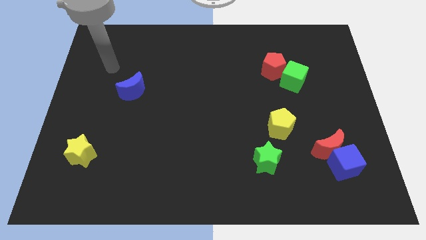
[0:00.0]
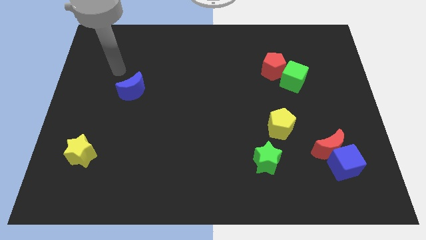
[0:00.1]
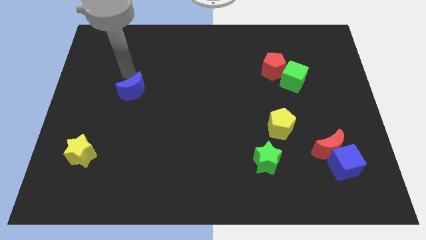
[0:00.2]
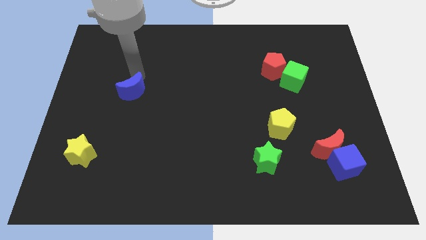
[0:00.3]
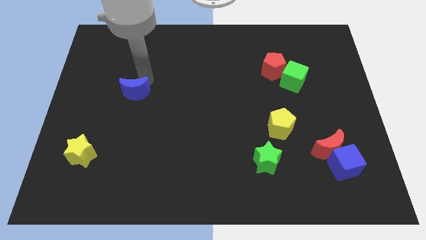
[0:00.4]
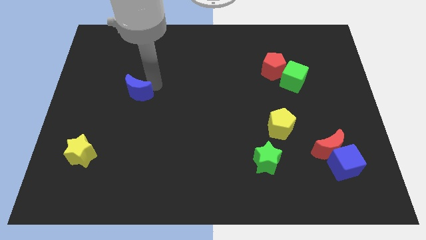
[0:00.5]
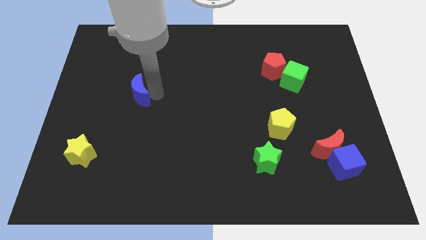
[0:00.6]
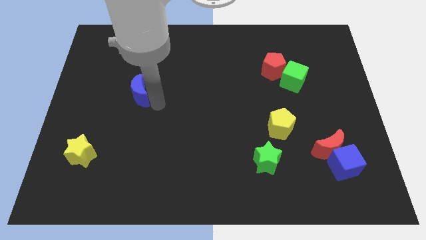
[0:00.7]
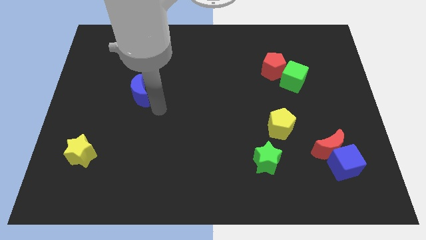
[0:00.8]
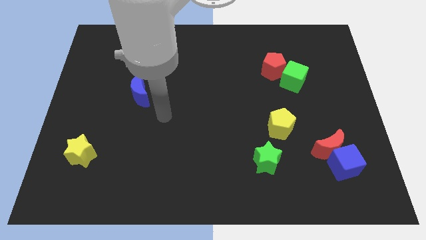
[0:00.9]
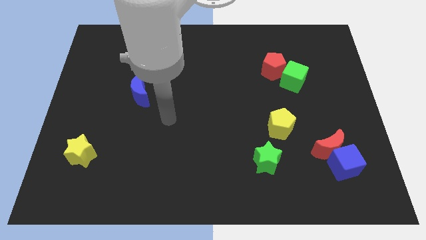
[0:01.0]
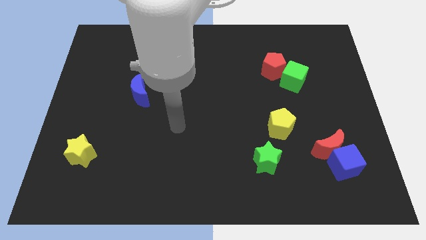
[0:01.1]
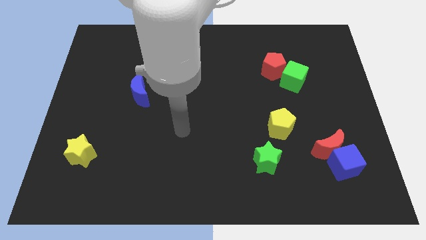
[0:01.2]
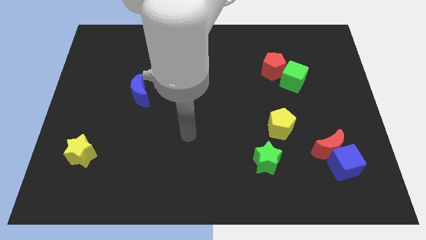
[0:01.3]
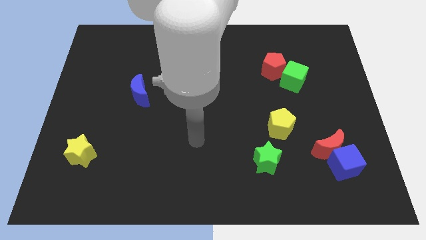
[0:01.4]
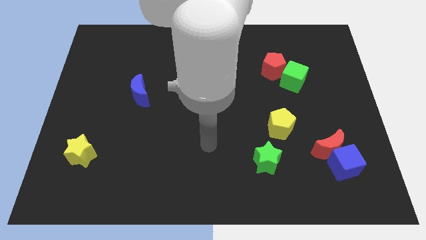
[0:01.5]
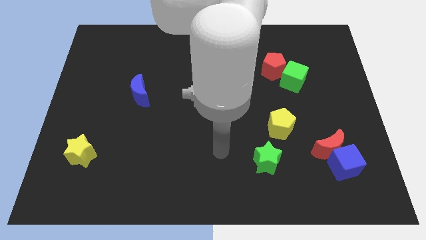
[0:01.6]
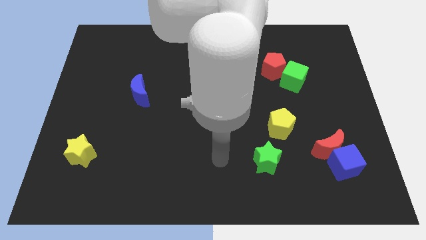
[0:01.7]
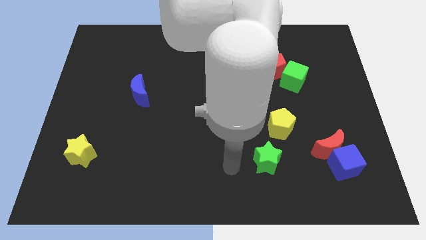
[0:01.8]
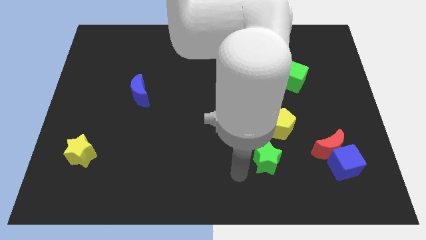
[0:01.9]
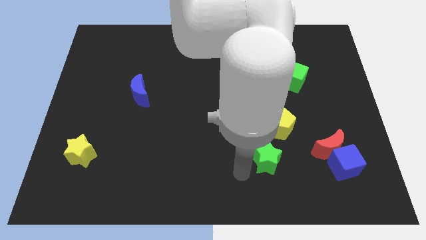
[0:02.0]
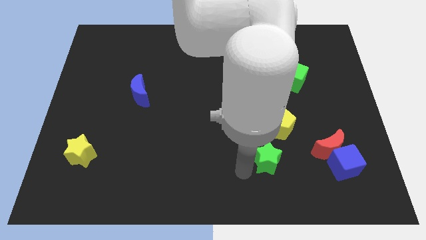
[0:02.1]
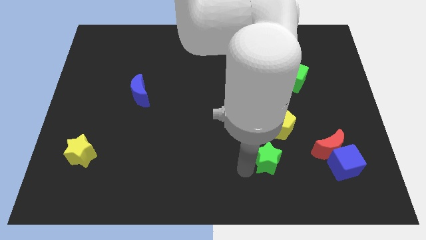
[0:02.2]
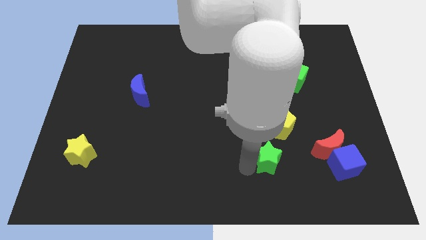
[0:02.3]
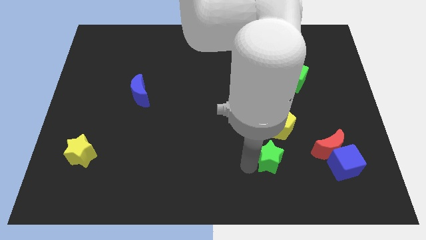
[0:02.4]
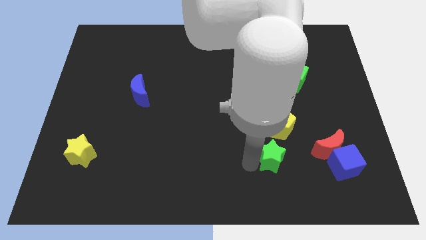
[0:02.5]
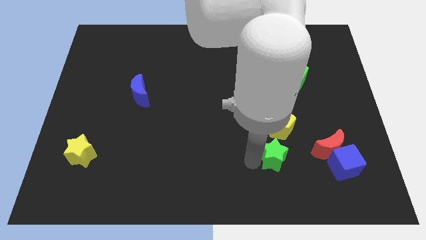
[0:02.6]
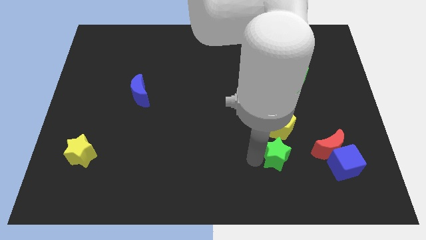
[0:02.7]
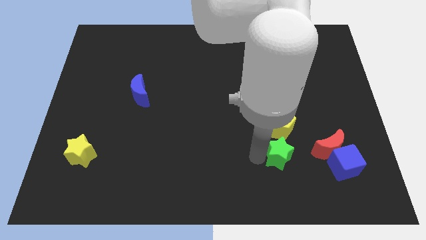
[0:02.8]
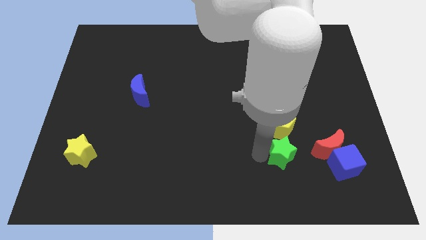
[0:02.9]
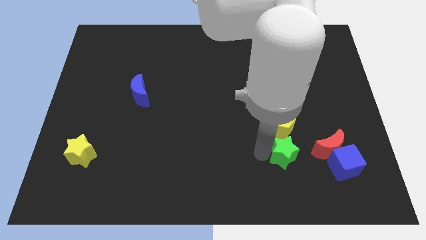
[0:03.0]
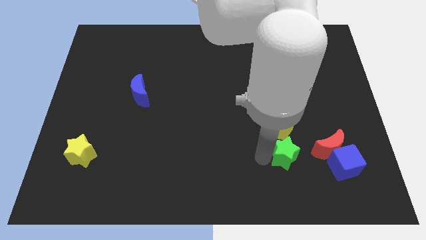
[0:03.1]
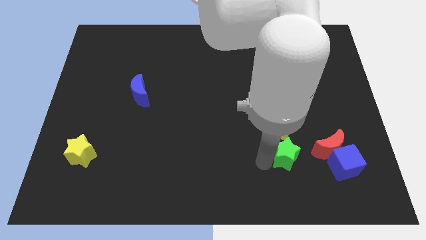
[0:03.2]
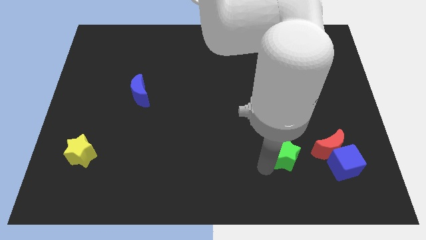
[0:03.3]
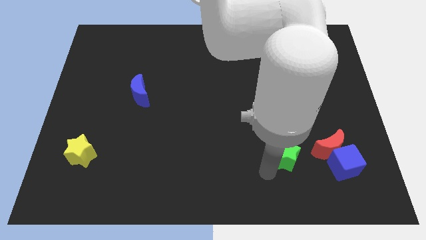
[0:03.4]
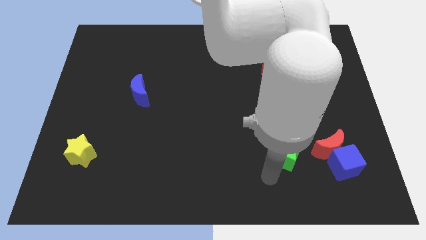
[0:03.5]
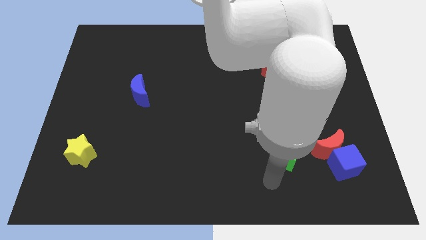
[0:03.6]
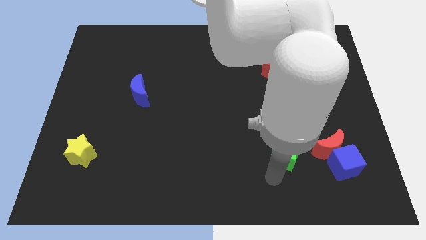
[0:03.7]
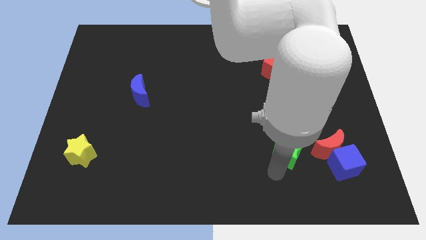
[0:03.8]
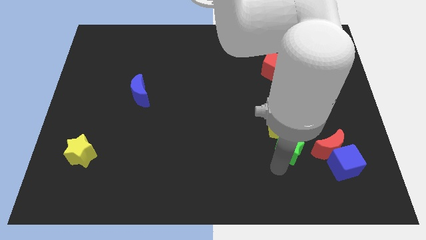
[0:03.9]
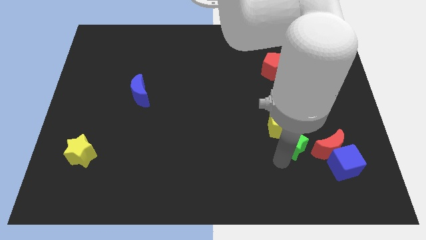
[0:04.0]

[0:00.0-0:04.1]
slightly push the green star upwards and to the right

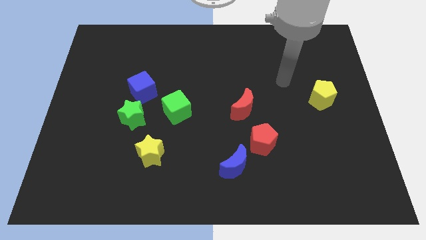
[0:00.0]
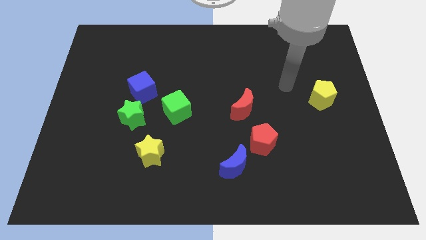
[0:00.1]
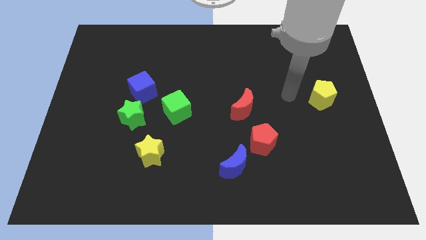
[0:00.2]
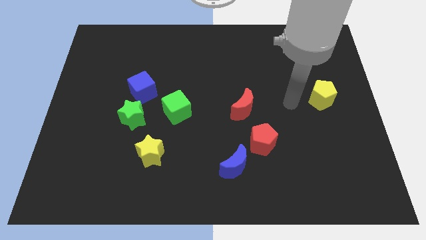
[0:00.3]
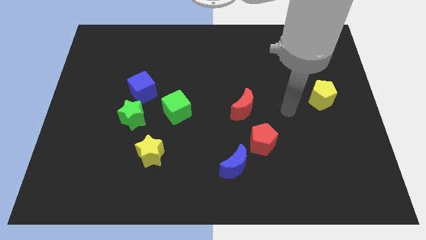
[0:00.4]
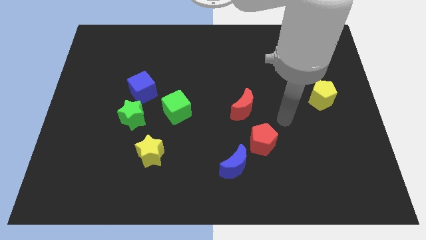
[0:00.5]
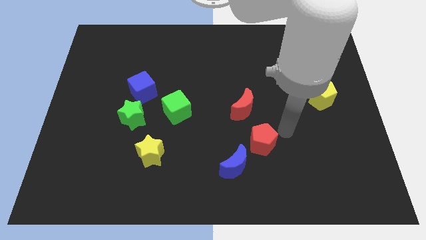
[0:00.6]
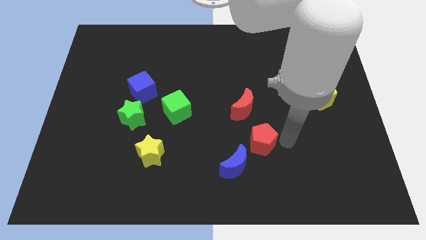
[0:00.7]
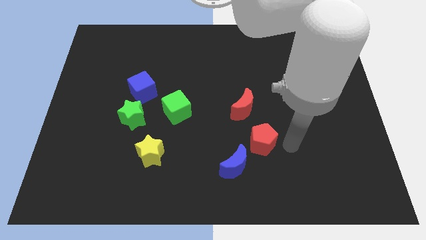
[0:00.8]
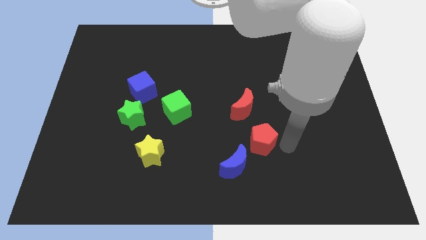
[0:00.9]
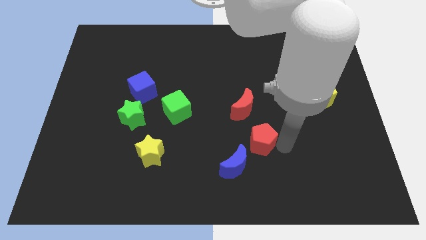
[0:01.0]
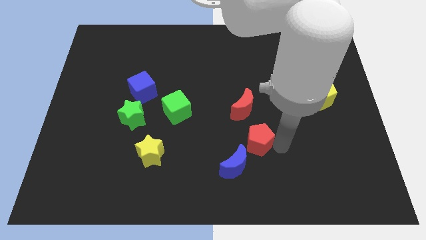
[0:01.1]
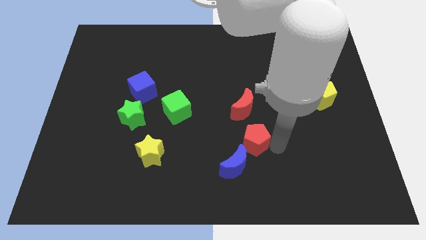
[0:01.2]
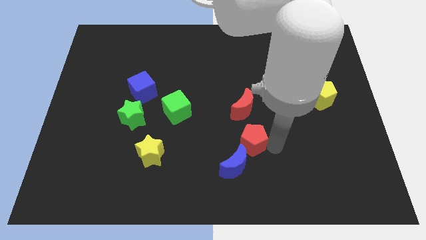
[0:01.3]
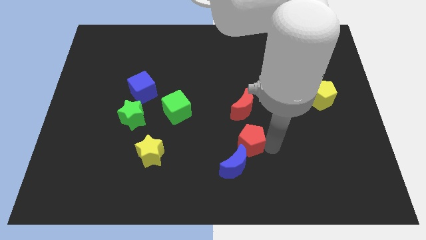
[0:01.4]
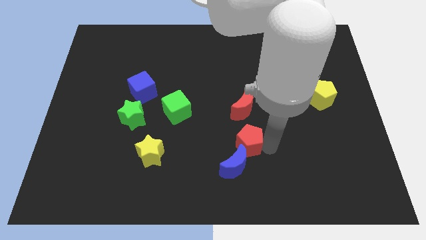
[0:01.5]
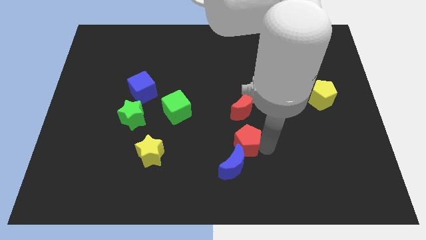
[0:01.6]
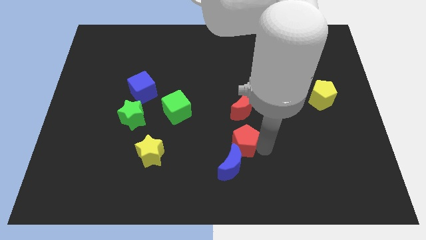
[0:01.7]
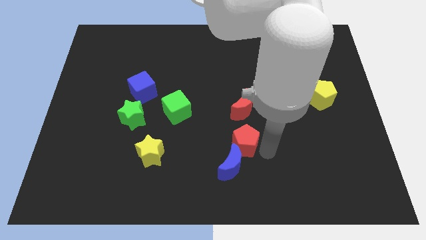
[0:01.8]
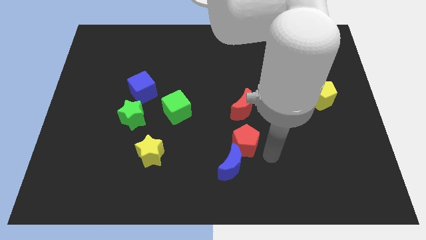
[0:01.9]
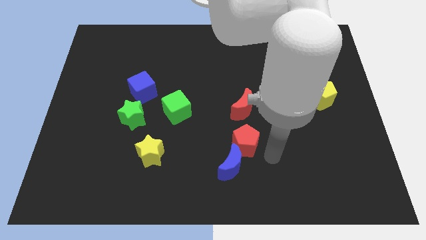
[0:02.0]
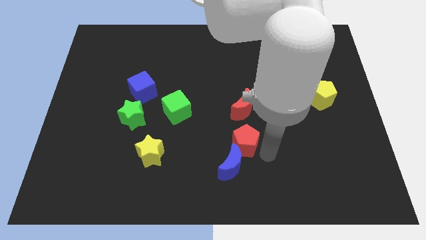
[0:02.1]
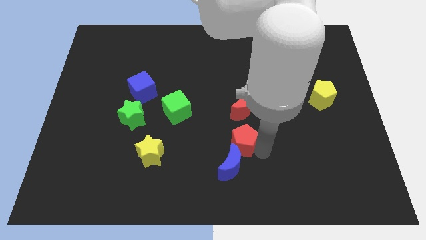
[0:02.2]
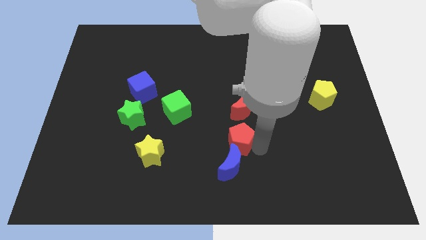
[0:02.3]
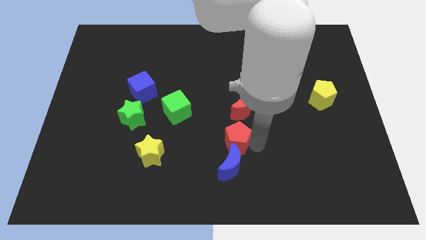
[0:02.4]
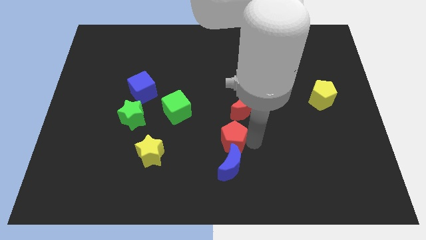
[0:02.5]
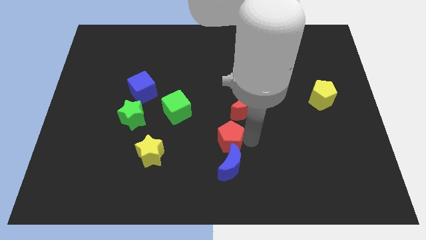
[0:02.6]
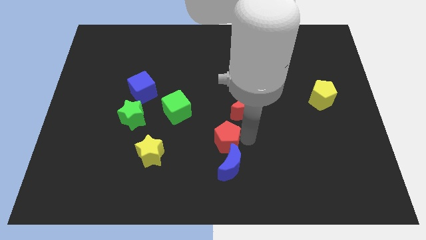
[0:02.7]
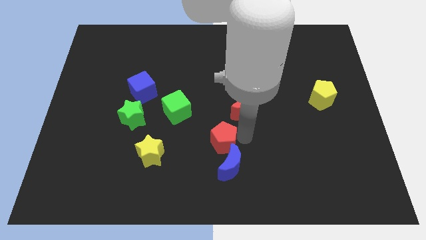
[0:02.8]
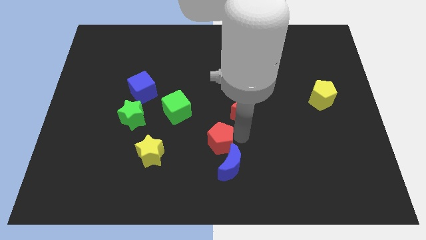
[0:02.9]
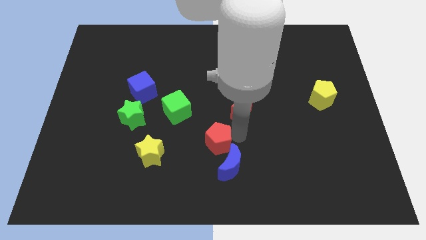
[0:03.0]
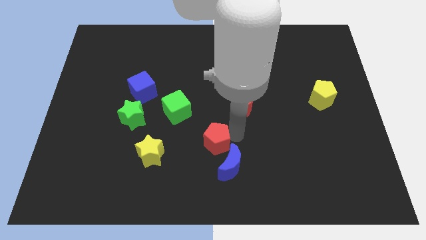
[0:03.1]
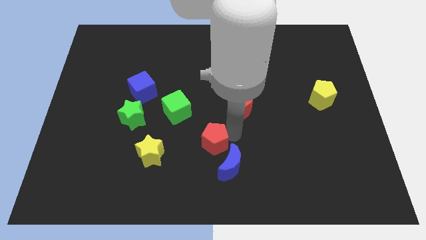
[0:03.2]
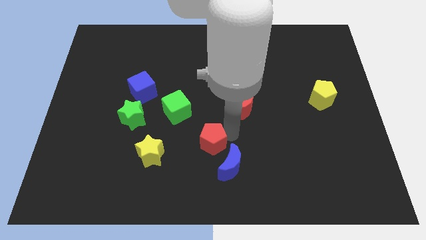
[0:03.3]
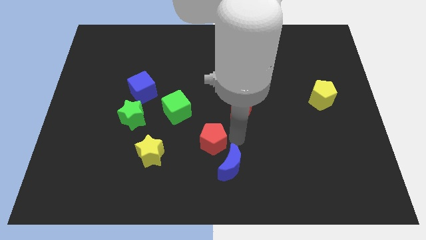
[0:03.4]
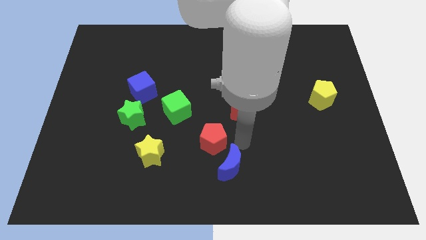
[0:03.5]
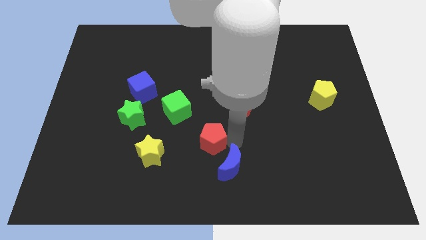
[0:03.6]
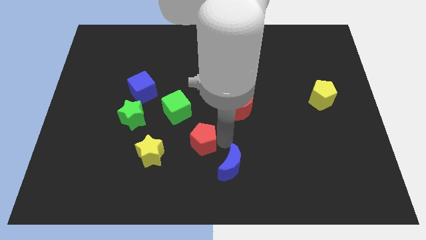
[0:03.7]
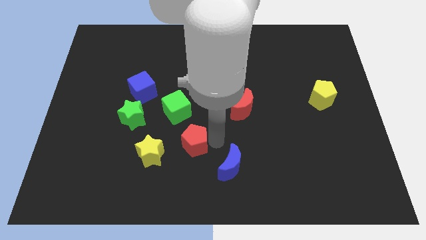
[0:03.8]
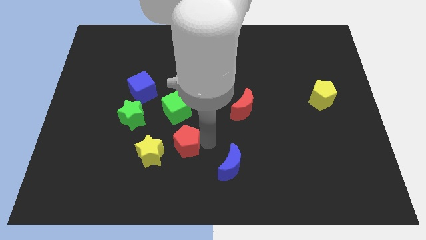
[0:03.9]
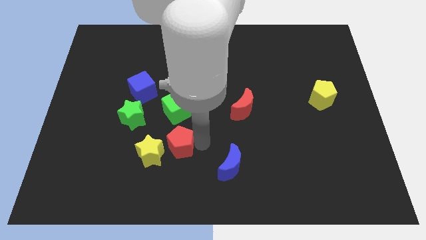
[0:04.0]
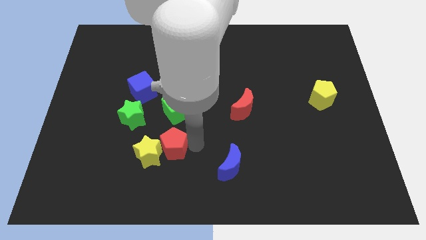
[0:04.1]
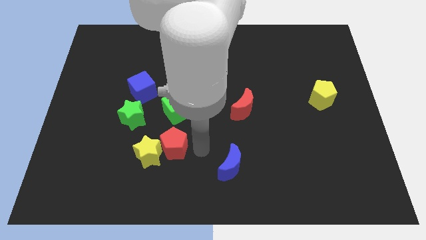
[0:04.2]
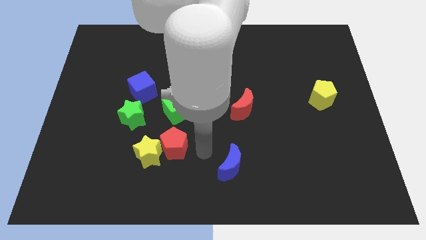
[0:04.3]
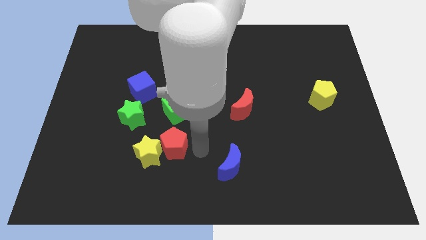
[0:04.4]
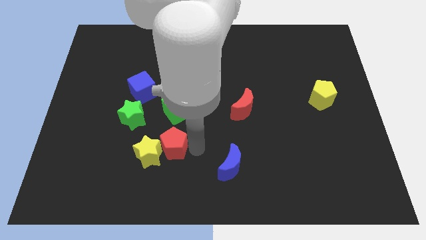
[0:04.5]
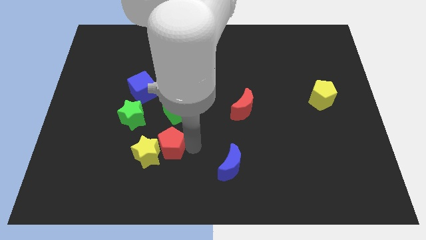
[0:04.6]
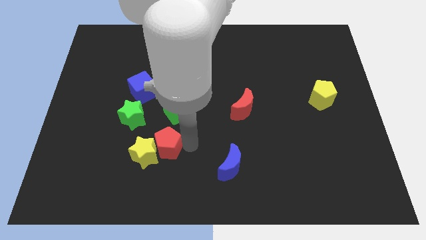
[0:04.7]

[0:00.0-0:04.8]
push the red pentagon left
